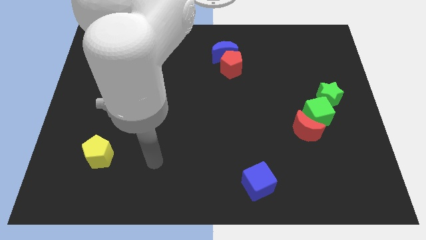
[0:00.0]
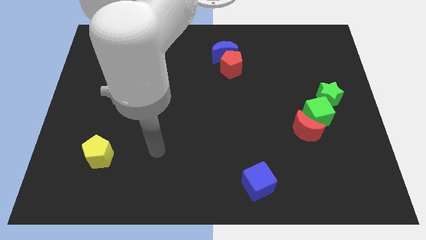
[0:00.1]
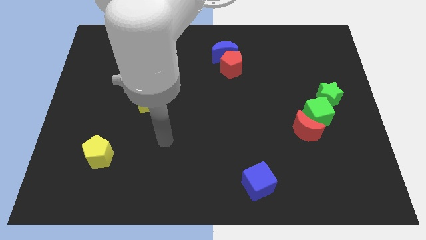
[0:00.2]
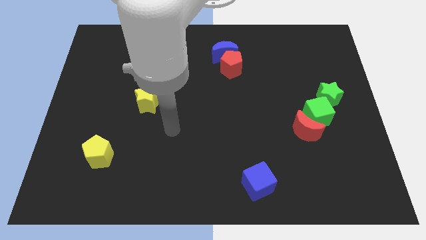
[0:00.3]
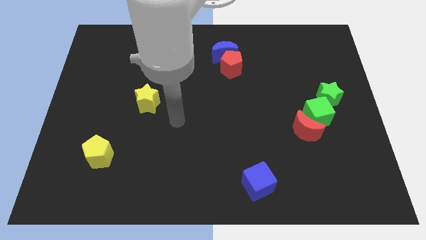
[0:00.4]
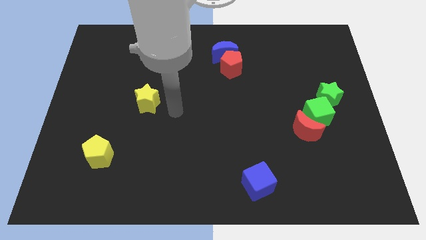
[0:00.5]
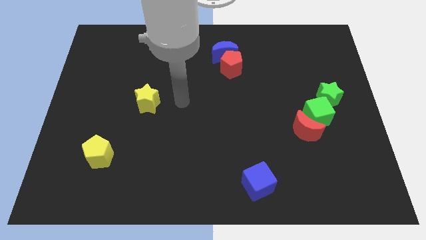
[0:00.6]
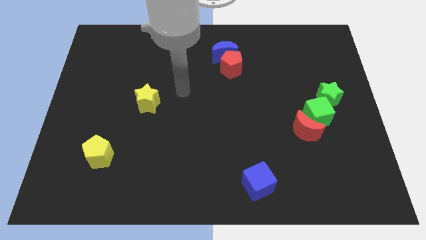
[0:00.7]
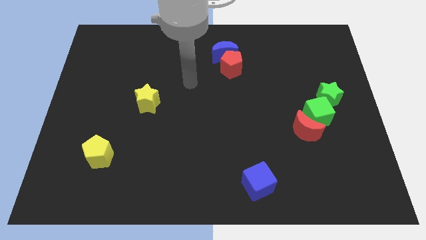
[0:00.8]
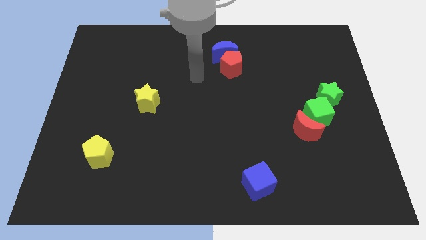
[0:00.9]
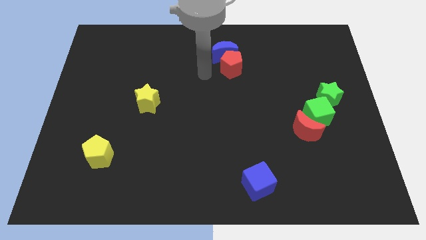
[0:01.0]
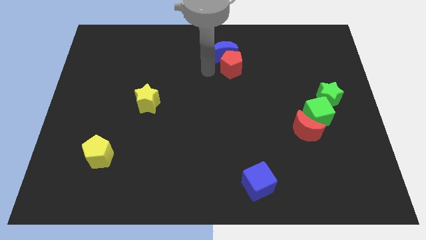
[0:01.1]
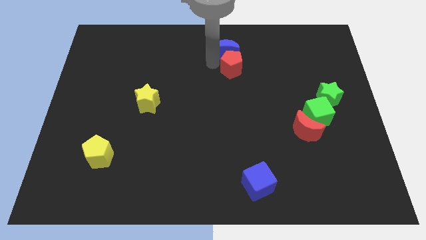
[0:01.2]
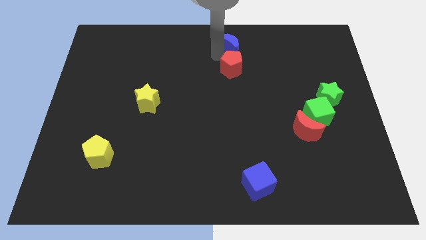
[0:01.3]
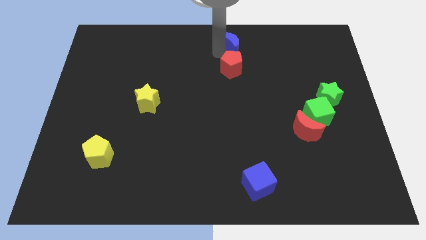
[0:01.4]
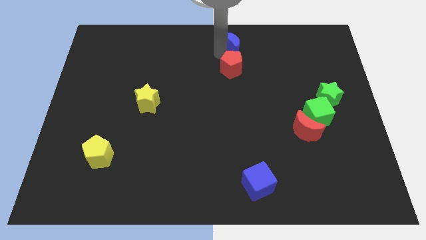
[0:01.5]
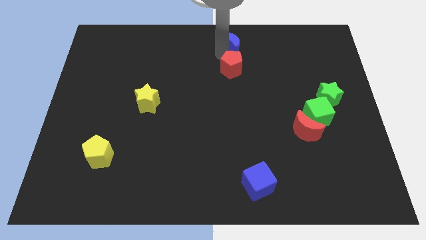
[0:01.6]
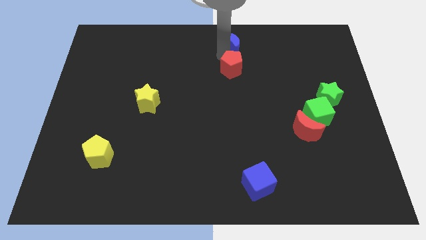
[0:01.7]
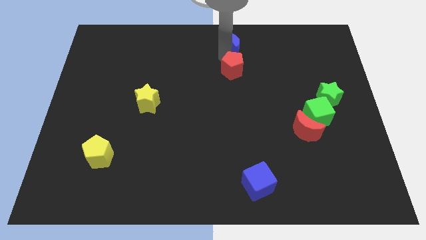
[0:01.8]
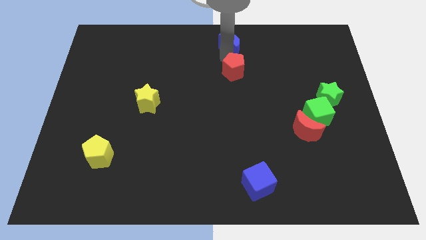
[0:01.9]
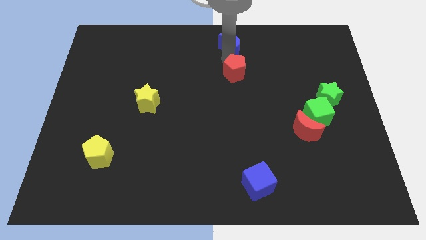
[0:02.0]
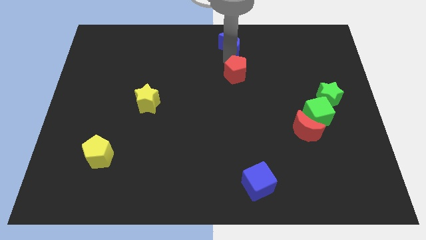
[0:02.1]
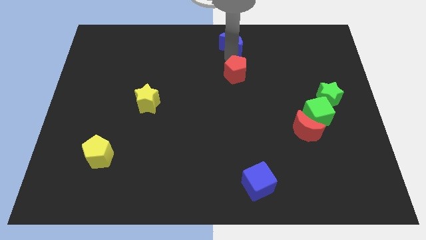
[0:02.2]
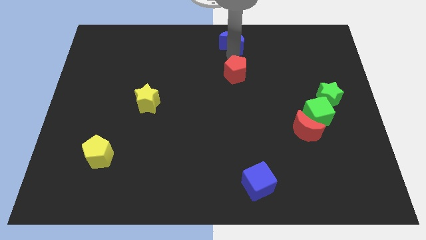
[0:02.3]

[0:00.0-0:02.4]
pull the red pentagon apart from the blue moon

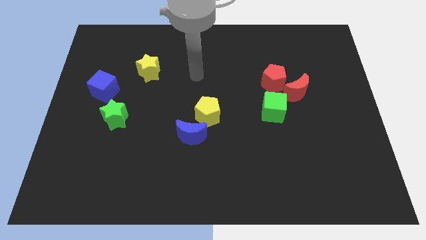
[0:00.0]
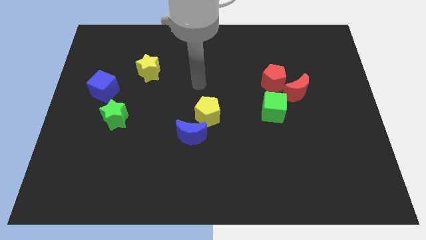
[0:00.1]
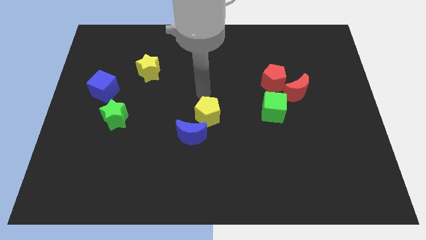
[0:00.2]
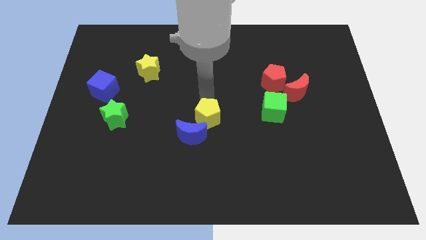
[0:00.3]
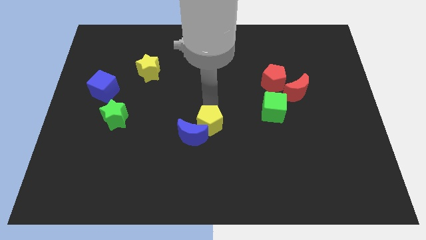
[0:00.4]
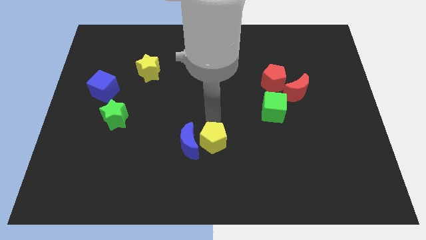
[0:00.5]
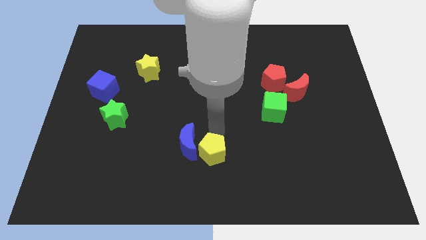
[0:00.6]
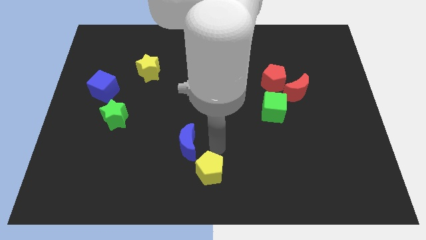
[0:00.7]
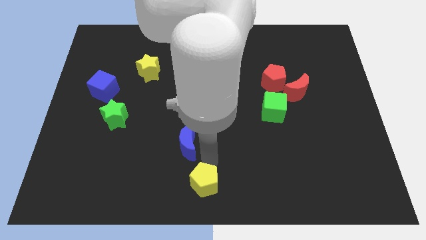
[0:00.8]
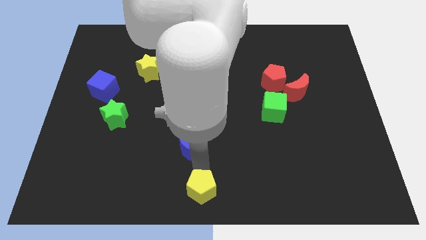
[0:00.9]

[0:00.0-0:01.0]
move the blue moon away from the yellow pentagon

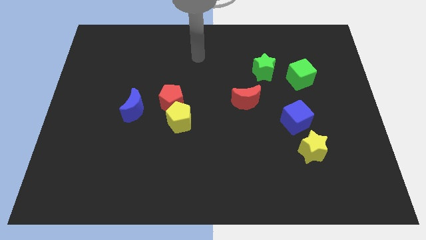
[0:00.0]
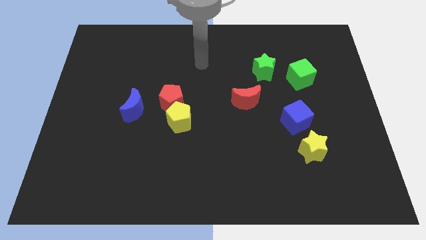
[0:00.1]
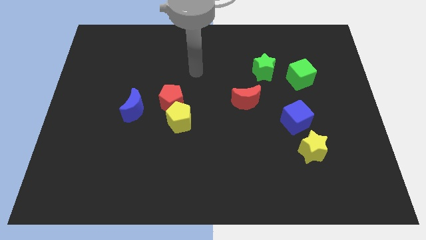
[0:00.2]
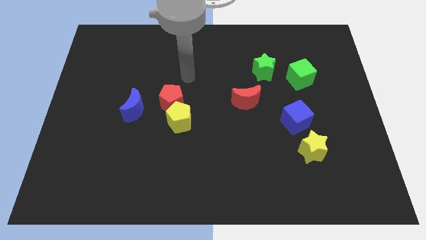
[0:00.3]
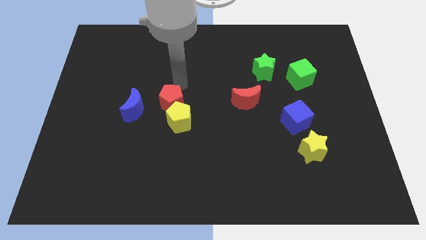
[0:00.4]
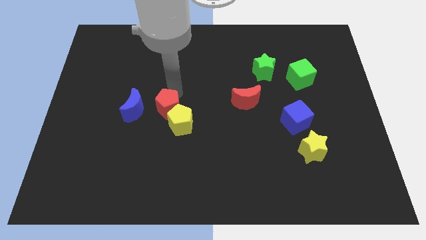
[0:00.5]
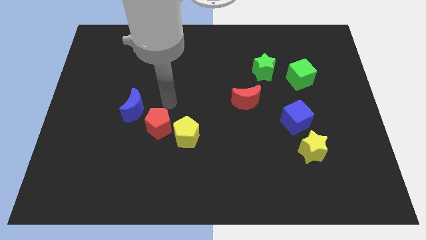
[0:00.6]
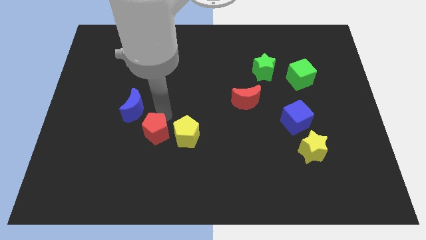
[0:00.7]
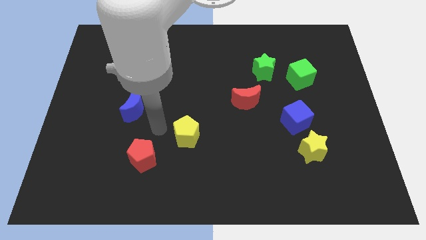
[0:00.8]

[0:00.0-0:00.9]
move the yellow pentagon away from the red pentagon

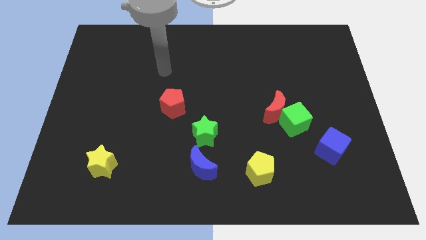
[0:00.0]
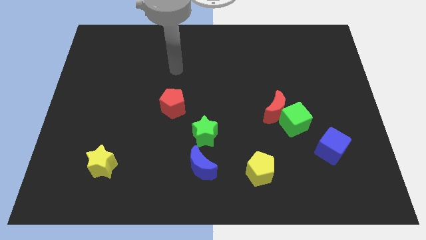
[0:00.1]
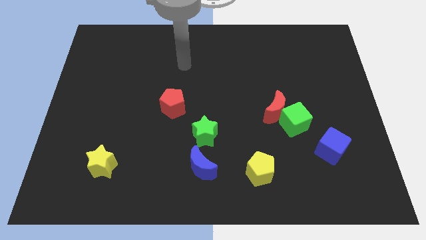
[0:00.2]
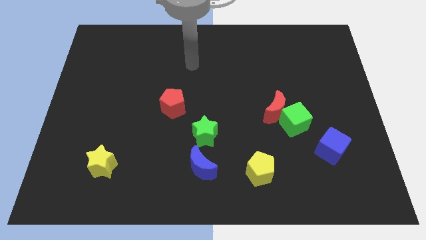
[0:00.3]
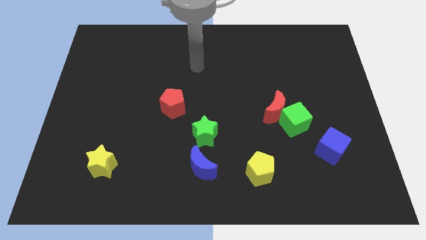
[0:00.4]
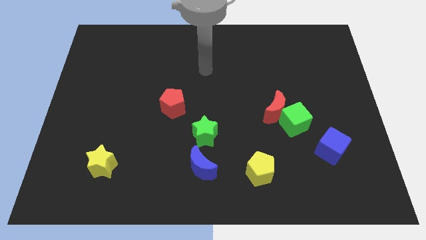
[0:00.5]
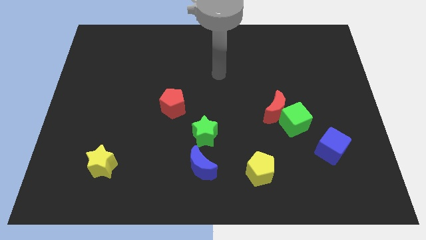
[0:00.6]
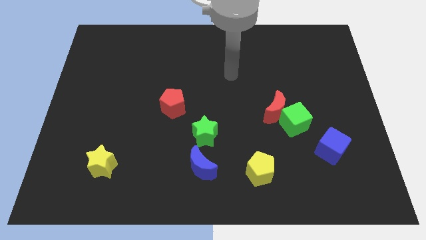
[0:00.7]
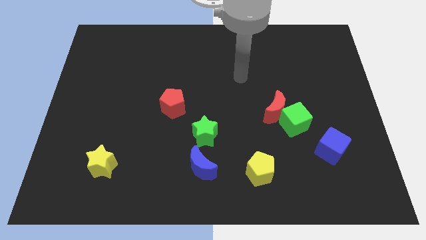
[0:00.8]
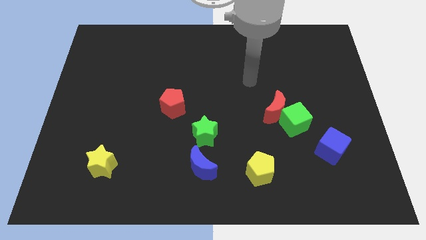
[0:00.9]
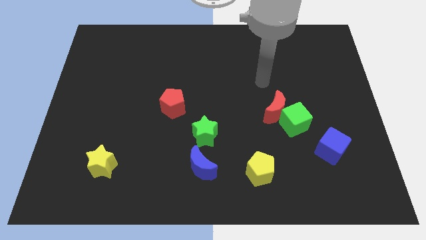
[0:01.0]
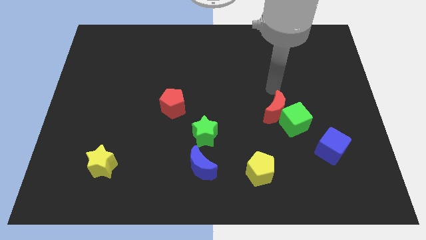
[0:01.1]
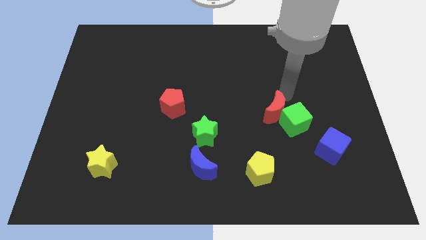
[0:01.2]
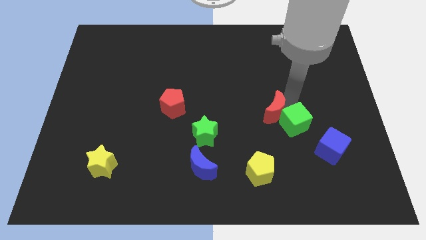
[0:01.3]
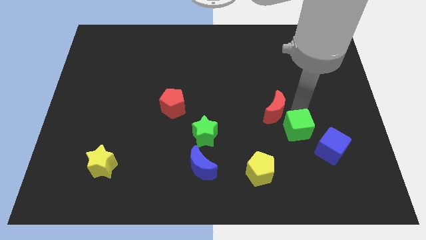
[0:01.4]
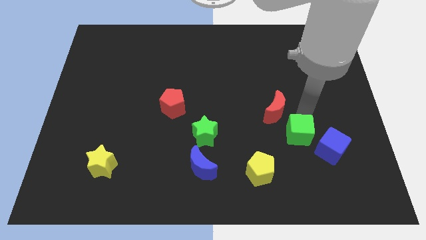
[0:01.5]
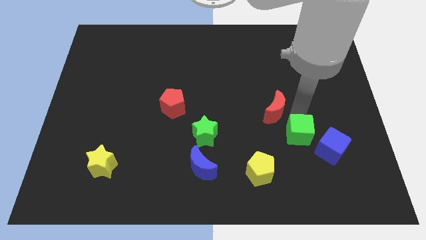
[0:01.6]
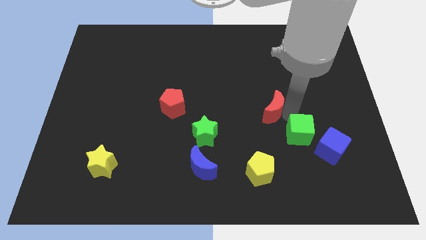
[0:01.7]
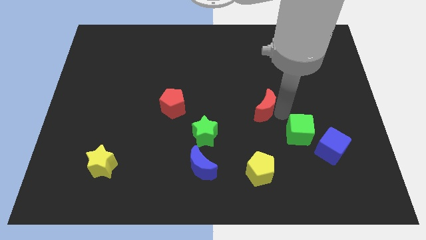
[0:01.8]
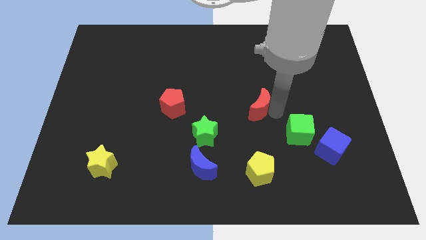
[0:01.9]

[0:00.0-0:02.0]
separate the red moon from the green cube

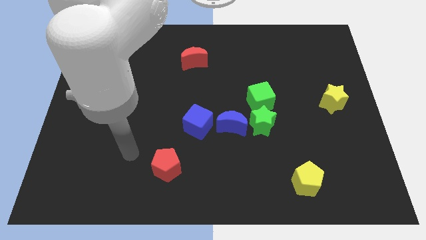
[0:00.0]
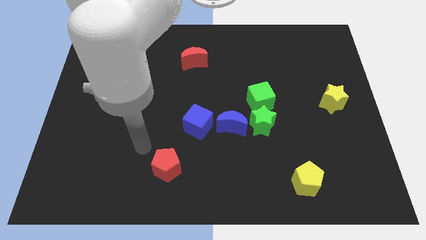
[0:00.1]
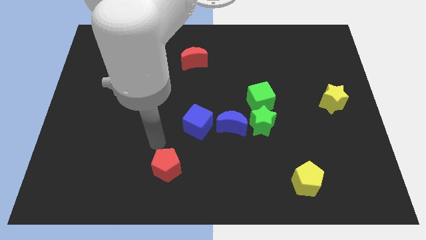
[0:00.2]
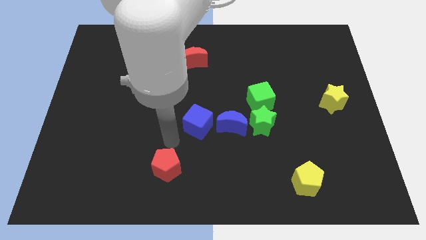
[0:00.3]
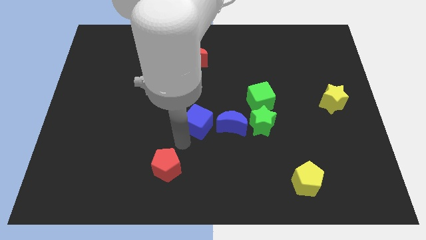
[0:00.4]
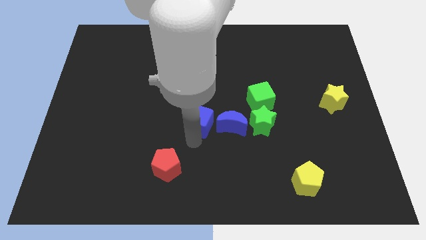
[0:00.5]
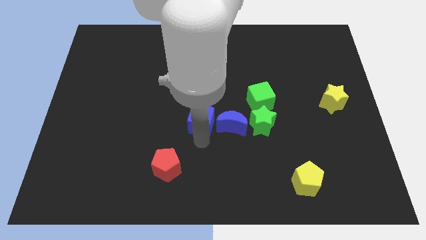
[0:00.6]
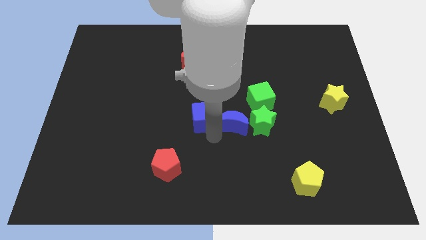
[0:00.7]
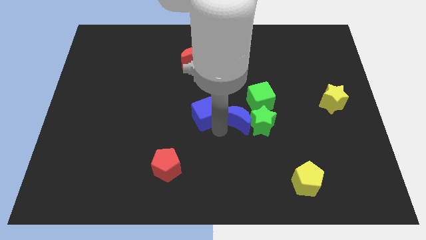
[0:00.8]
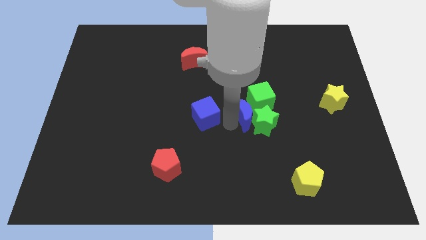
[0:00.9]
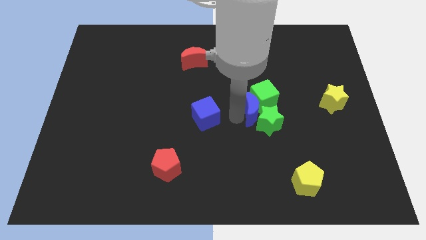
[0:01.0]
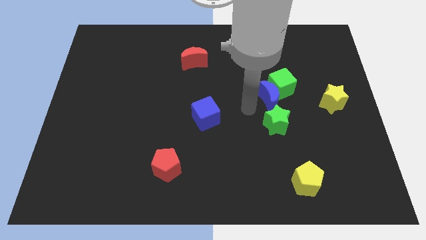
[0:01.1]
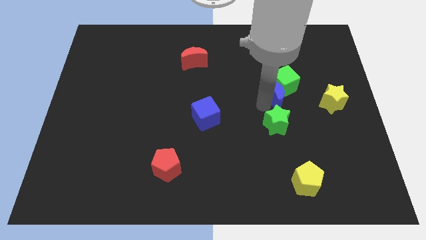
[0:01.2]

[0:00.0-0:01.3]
pull the green star apart from the blue moon and green cube

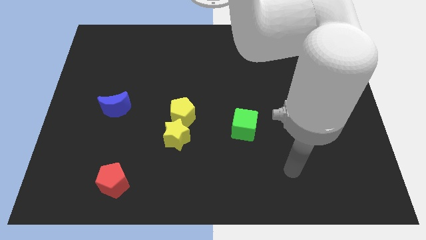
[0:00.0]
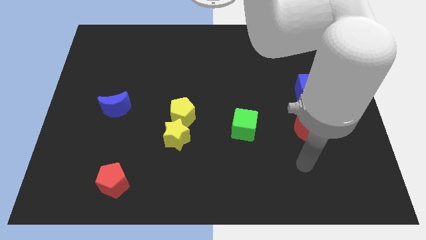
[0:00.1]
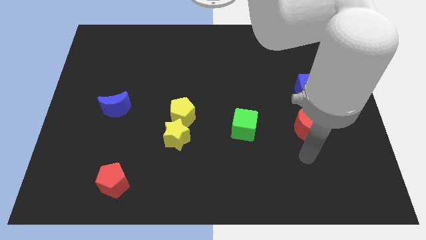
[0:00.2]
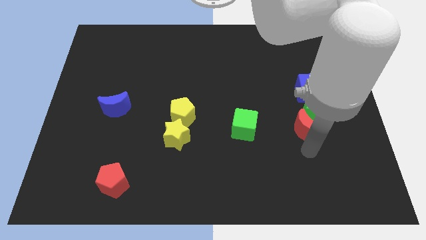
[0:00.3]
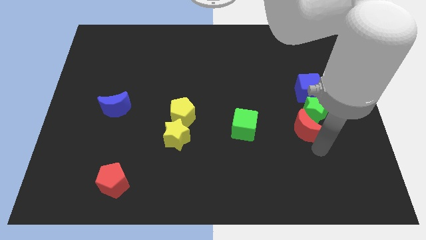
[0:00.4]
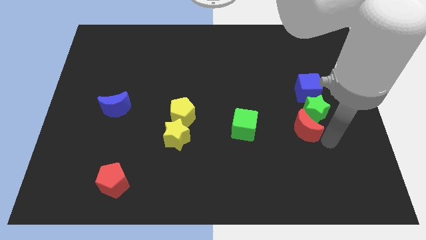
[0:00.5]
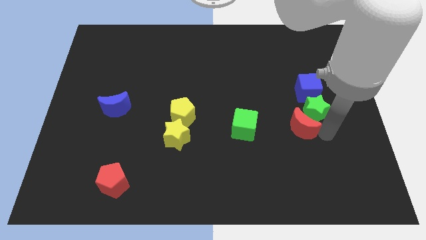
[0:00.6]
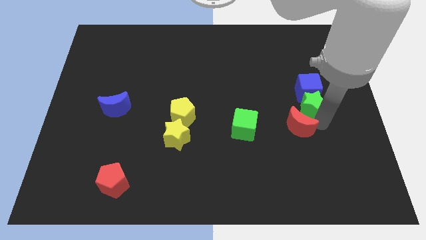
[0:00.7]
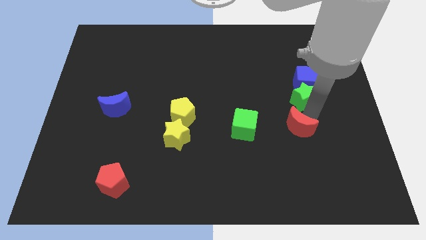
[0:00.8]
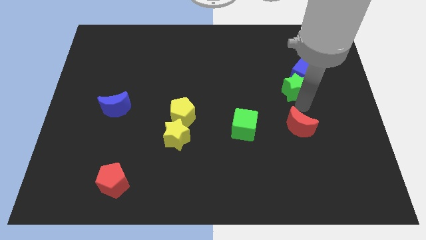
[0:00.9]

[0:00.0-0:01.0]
move the red moon away from the green star

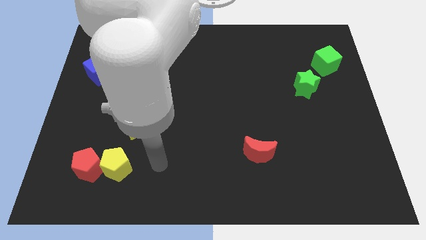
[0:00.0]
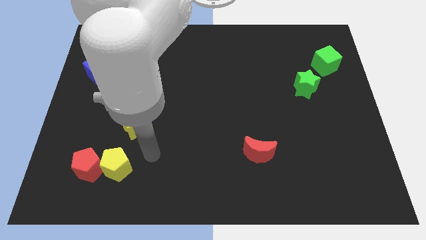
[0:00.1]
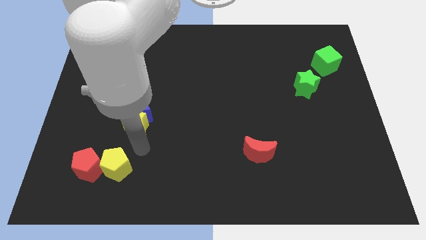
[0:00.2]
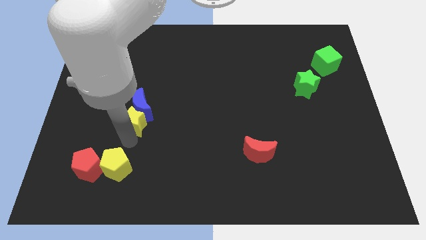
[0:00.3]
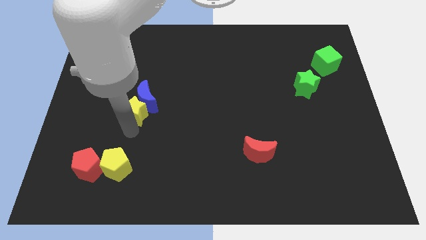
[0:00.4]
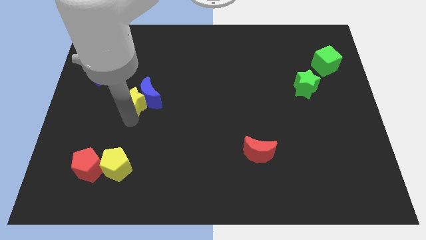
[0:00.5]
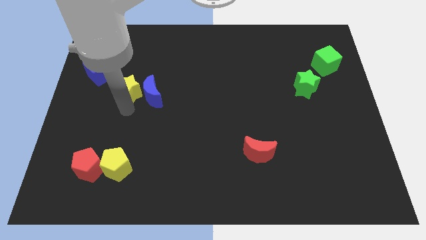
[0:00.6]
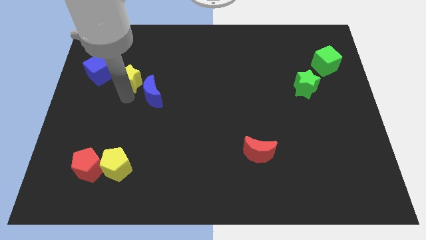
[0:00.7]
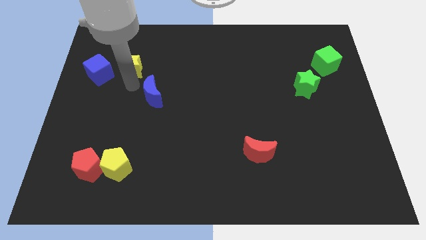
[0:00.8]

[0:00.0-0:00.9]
move the blue moon away from the yellow star
